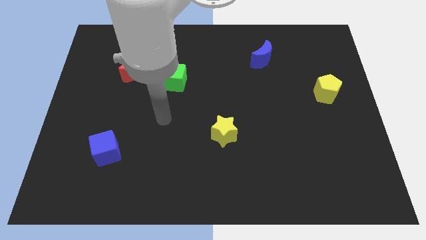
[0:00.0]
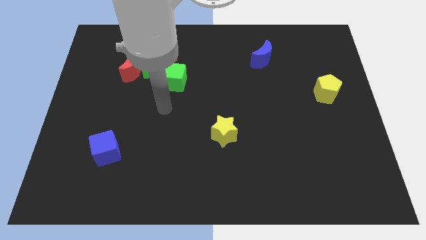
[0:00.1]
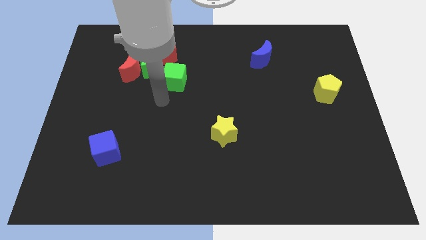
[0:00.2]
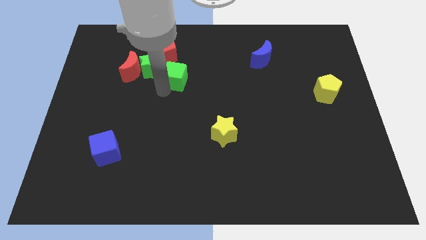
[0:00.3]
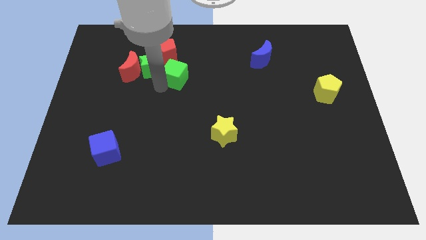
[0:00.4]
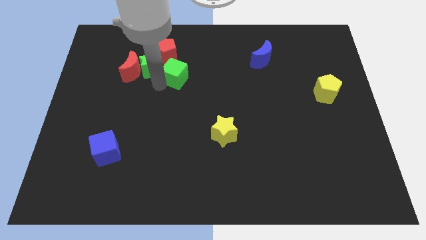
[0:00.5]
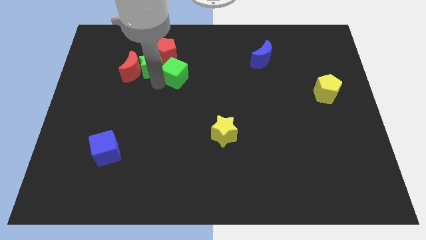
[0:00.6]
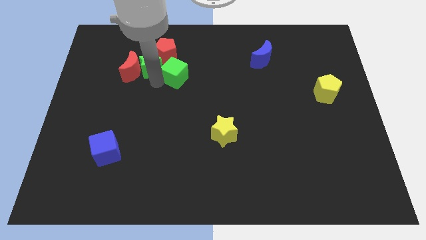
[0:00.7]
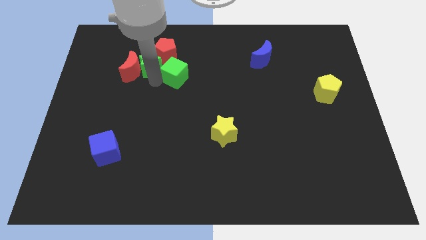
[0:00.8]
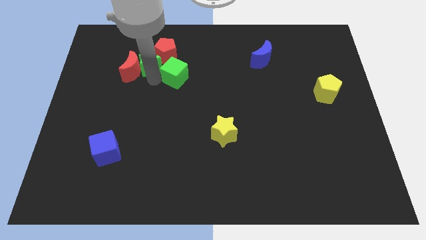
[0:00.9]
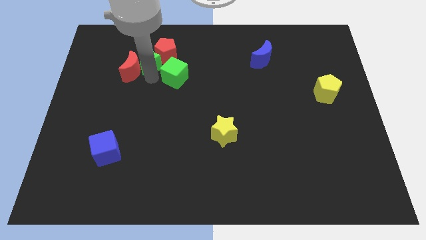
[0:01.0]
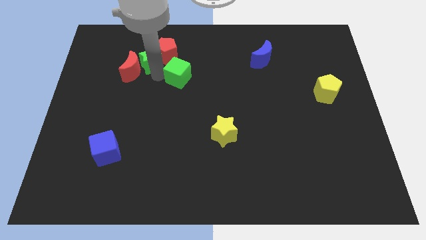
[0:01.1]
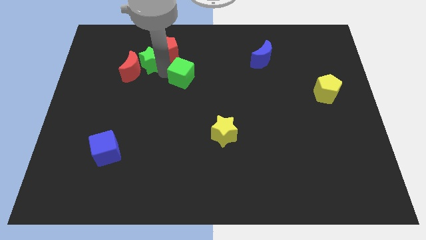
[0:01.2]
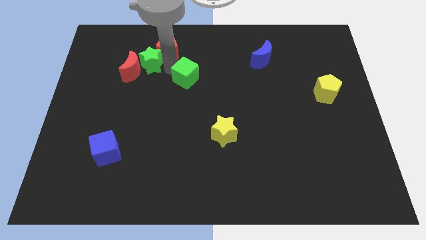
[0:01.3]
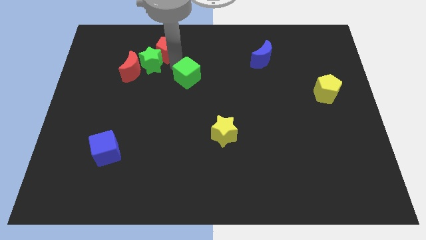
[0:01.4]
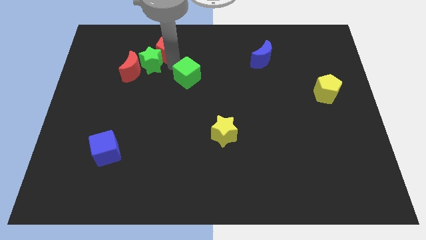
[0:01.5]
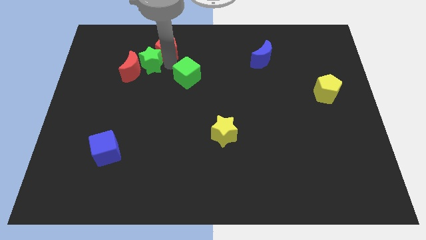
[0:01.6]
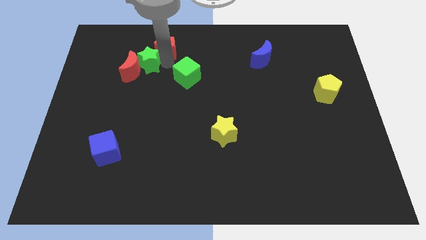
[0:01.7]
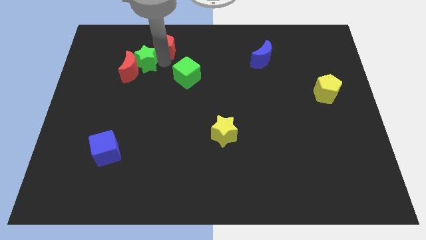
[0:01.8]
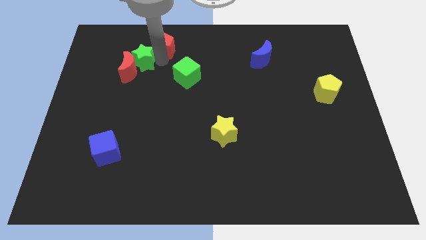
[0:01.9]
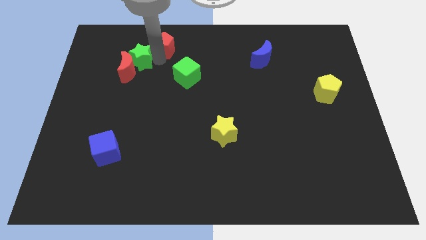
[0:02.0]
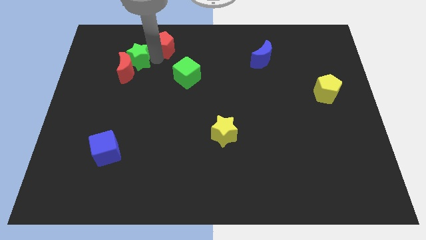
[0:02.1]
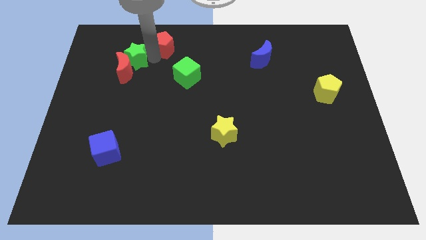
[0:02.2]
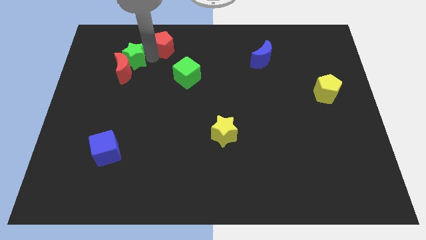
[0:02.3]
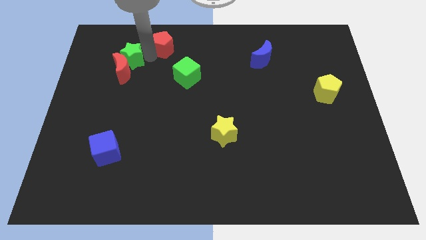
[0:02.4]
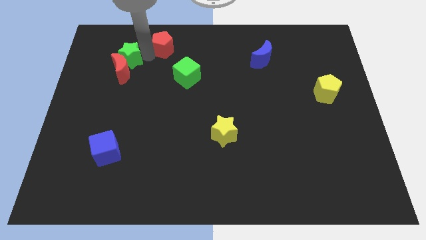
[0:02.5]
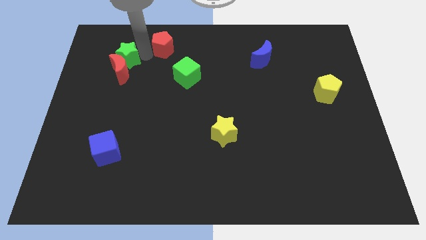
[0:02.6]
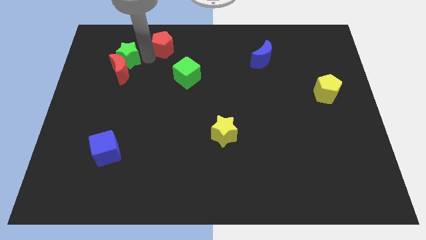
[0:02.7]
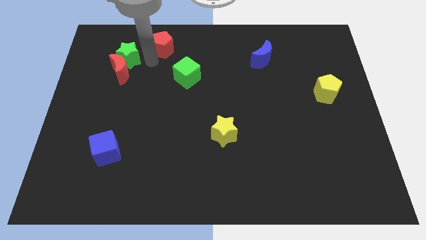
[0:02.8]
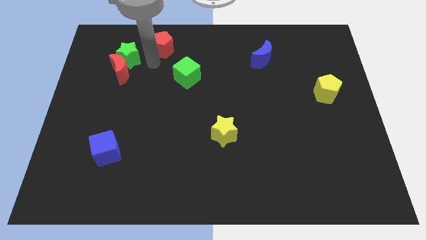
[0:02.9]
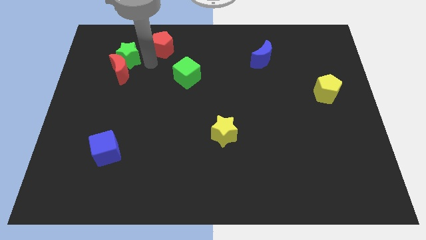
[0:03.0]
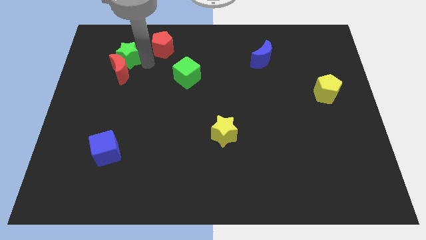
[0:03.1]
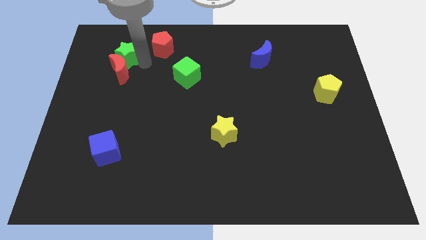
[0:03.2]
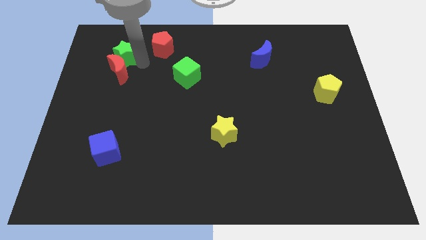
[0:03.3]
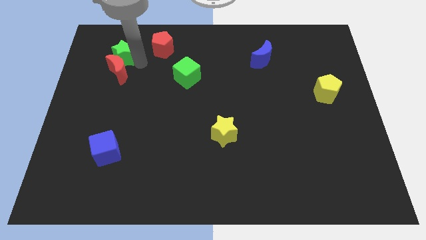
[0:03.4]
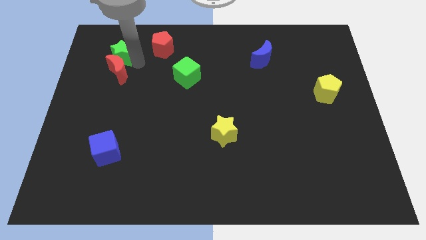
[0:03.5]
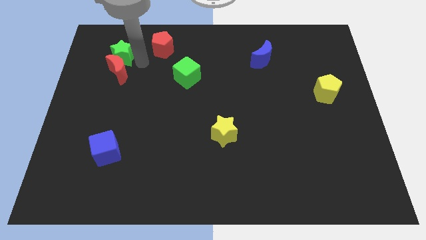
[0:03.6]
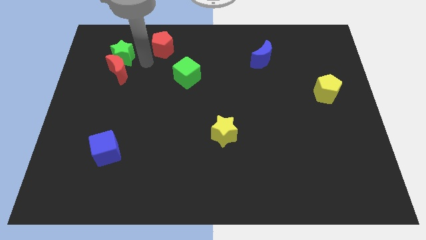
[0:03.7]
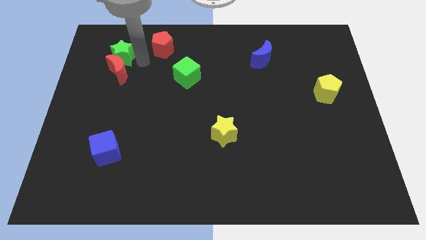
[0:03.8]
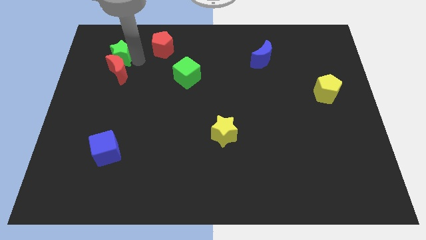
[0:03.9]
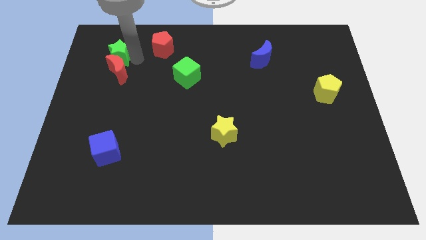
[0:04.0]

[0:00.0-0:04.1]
move the green star away from the red moon, red pentagon, and green cube

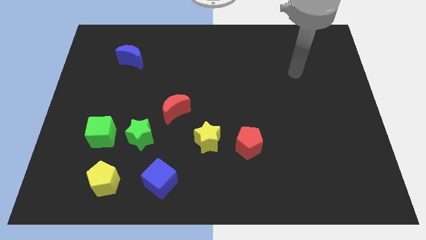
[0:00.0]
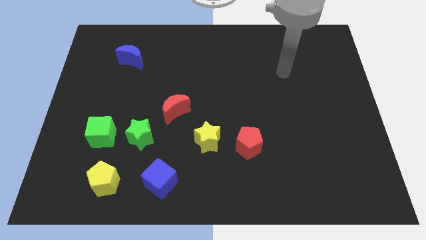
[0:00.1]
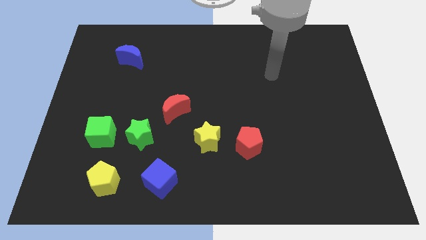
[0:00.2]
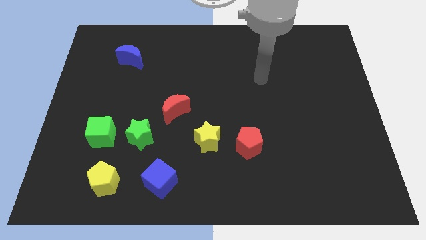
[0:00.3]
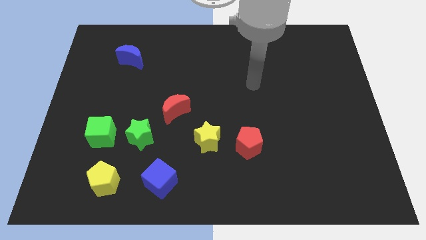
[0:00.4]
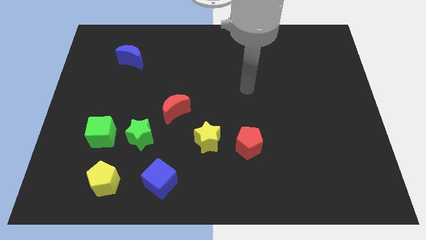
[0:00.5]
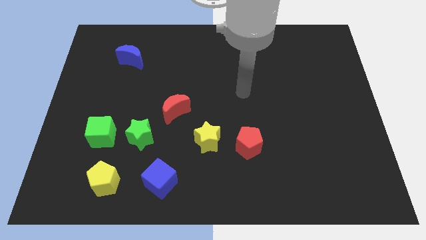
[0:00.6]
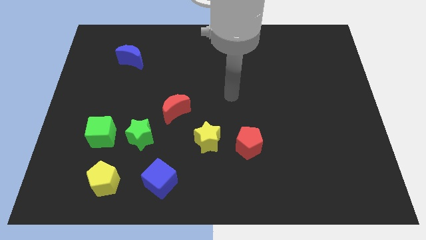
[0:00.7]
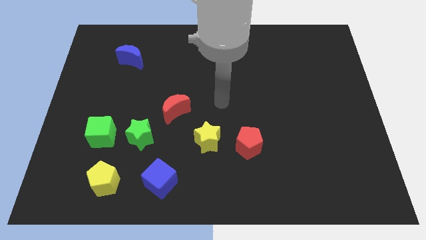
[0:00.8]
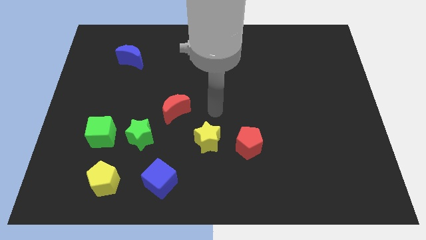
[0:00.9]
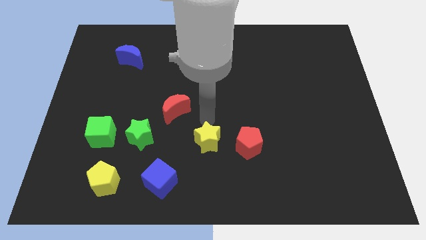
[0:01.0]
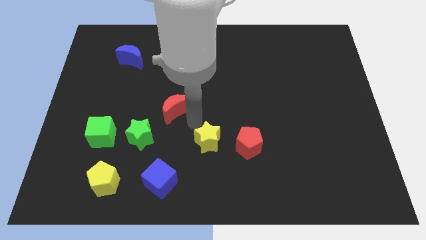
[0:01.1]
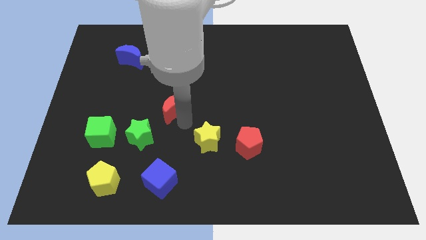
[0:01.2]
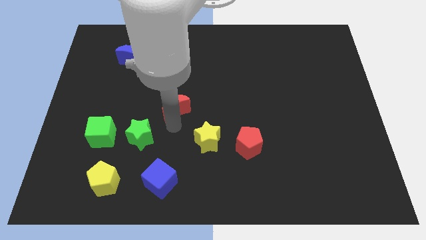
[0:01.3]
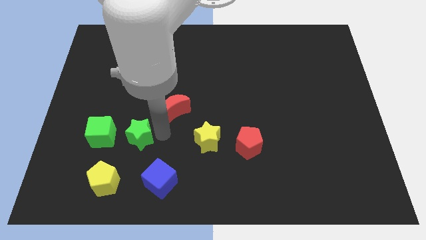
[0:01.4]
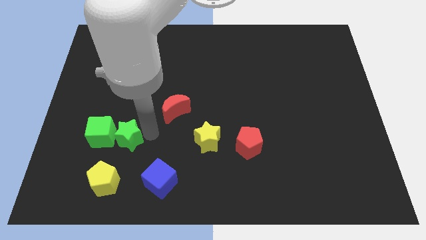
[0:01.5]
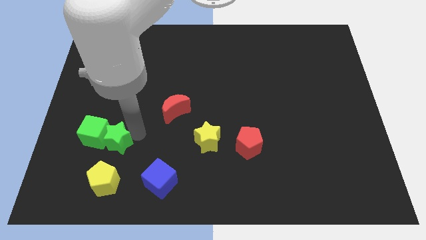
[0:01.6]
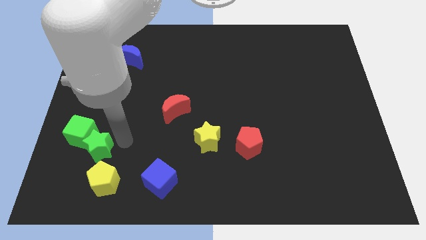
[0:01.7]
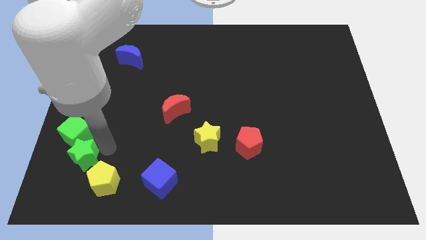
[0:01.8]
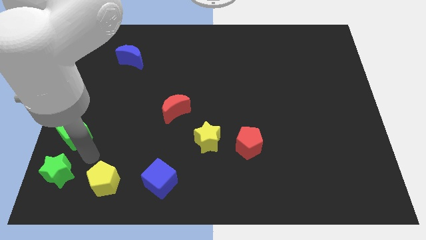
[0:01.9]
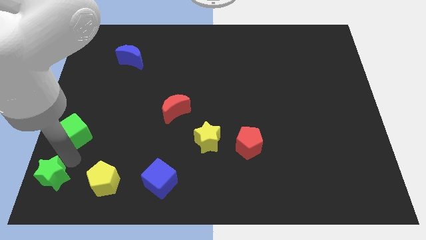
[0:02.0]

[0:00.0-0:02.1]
pull the green cube apart from the green star

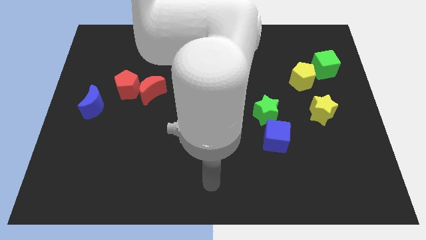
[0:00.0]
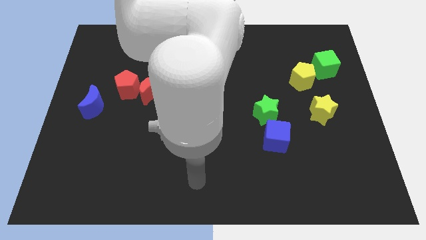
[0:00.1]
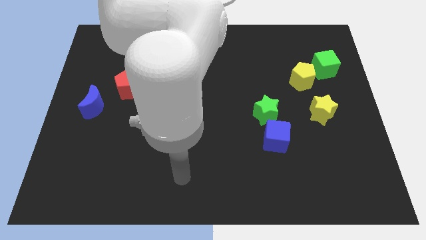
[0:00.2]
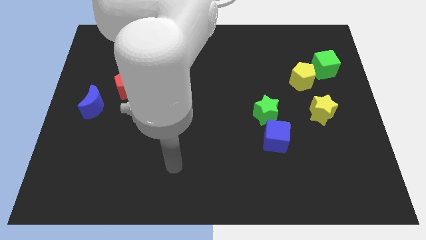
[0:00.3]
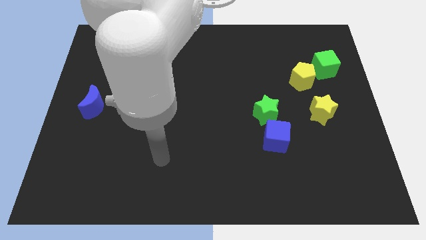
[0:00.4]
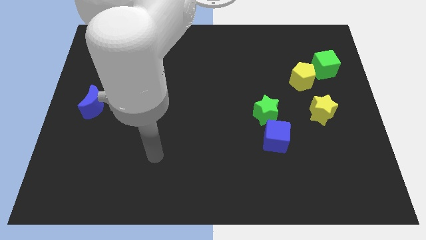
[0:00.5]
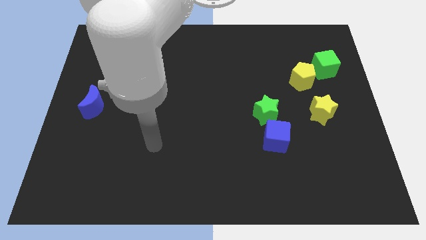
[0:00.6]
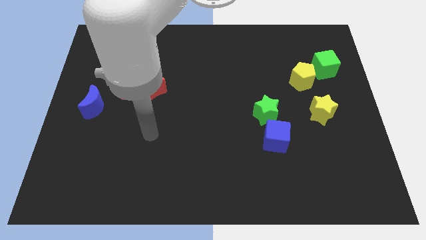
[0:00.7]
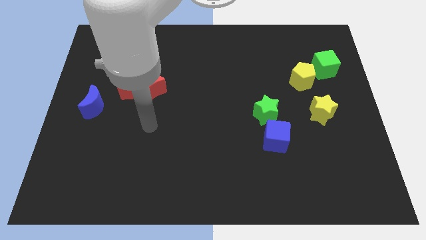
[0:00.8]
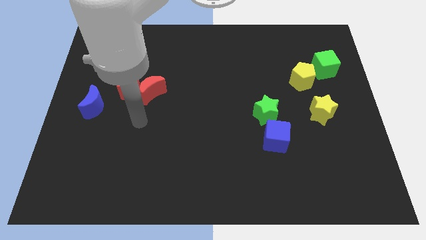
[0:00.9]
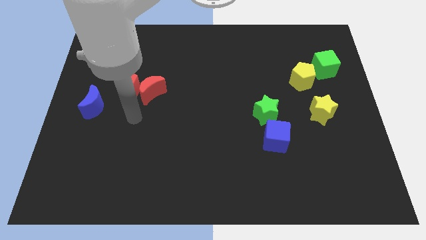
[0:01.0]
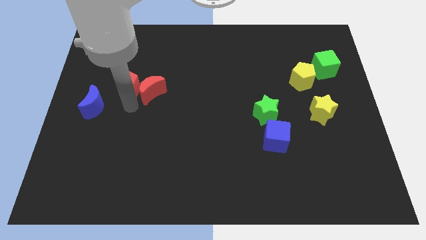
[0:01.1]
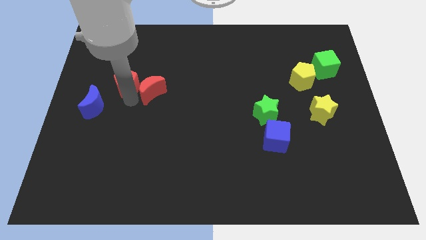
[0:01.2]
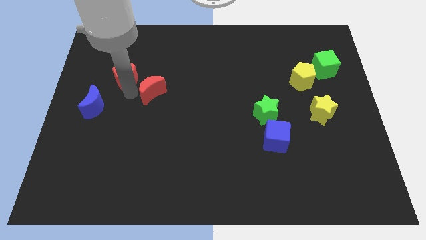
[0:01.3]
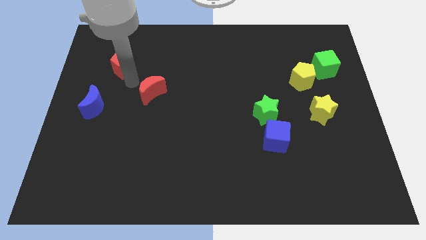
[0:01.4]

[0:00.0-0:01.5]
pull the red moon apart from the red pentagon

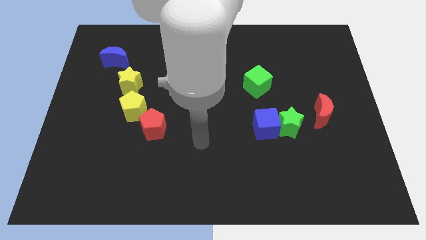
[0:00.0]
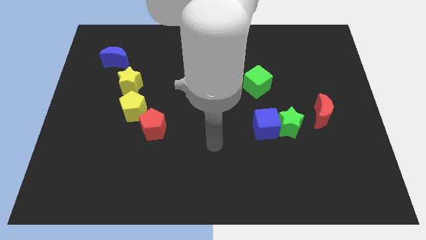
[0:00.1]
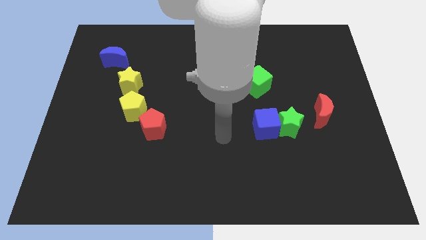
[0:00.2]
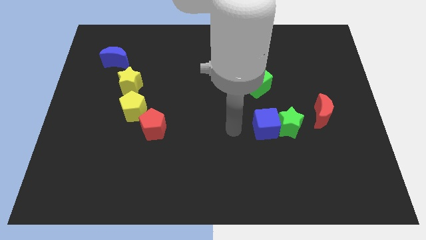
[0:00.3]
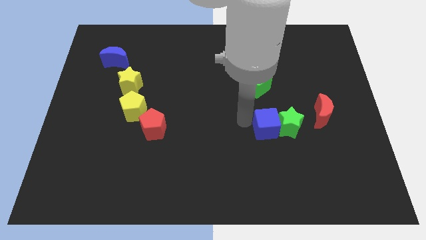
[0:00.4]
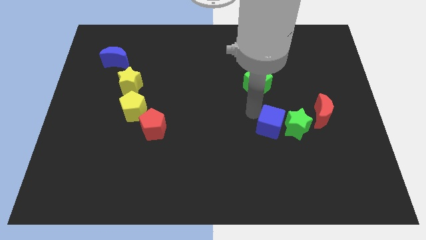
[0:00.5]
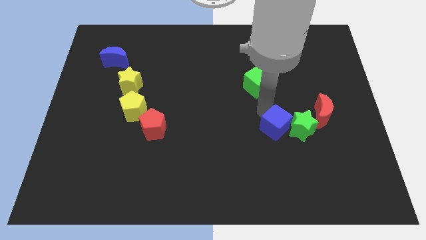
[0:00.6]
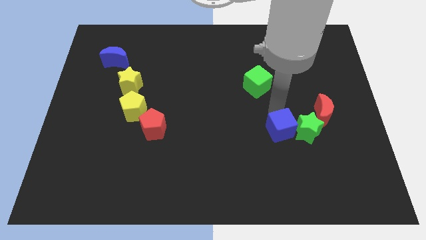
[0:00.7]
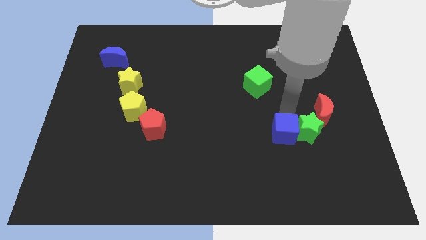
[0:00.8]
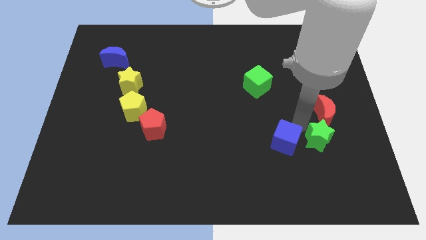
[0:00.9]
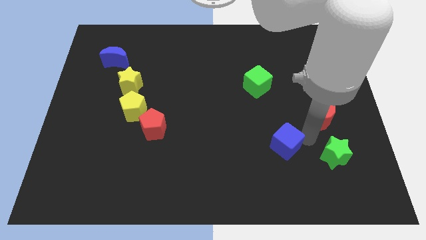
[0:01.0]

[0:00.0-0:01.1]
pull the blue cube apart from the green star

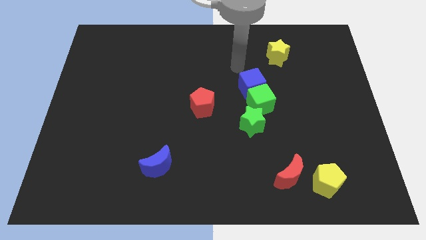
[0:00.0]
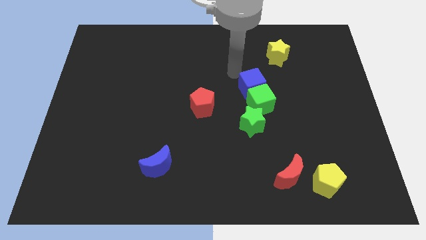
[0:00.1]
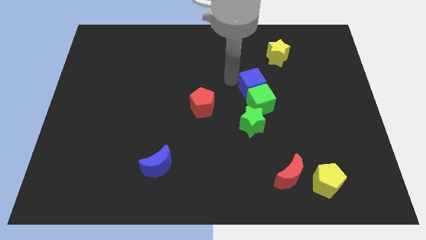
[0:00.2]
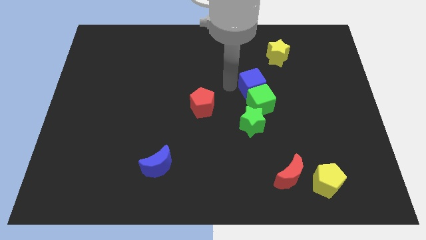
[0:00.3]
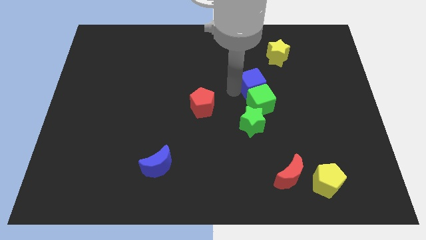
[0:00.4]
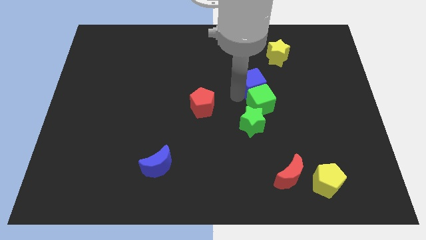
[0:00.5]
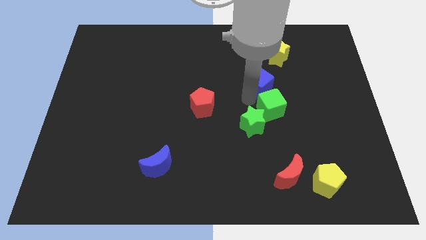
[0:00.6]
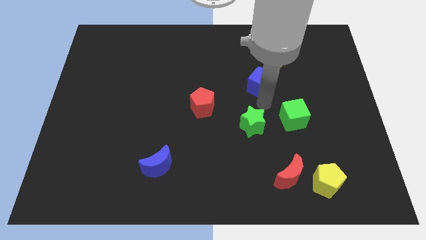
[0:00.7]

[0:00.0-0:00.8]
move the blue cube away from the green cube
